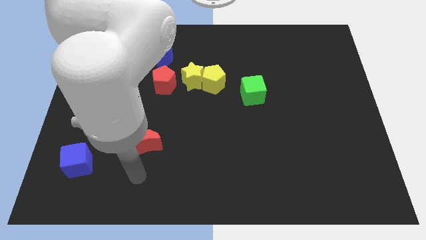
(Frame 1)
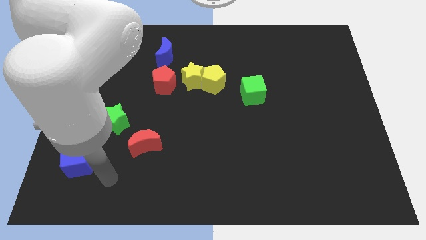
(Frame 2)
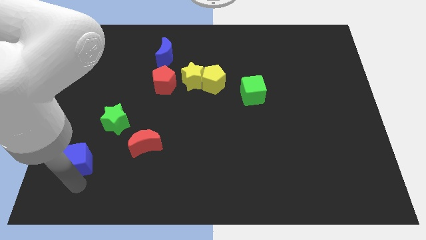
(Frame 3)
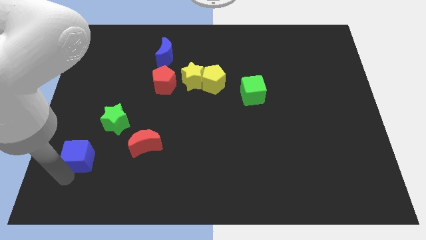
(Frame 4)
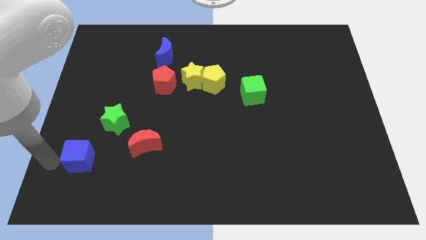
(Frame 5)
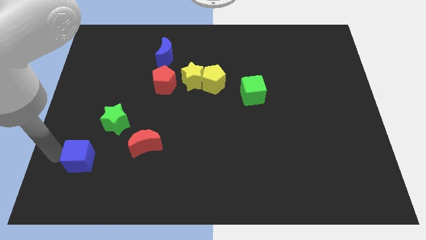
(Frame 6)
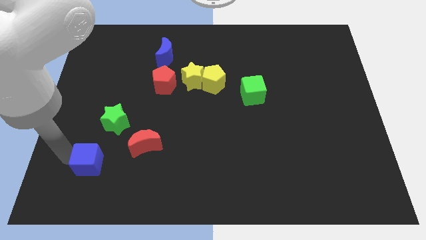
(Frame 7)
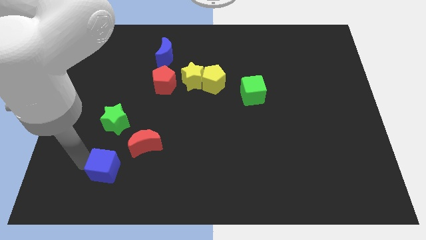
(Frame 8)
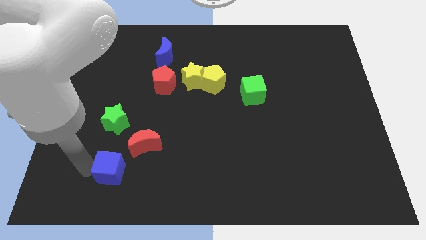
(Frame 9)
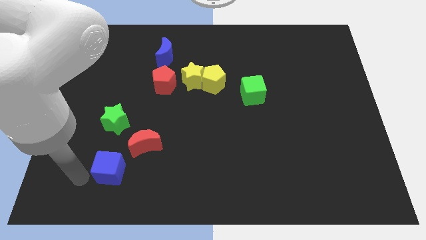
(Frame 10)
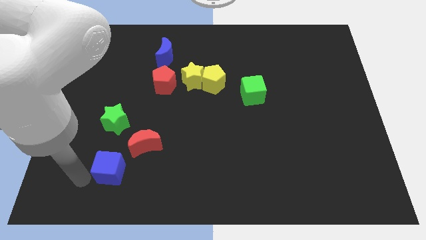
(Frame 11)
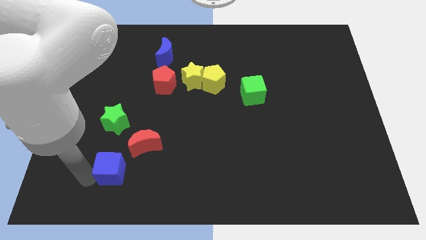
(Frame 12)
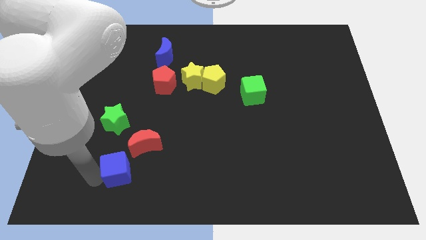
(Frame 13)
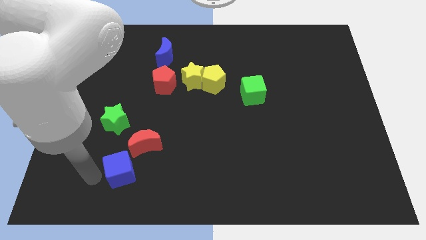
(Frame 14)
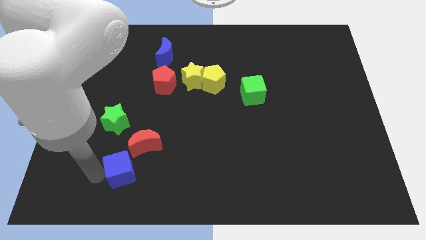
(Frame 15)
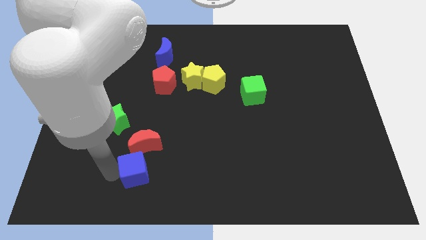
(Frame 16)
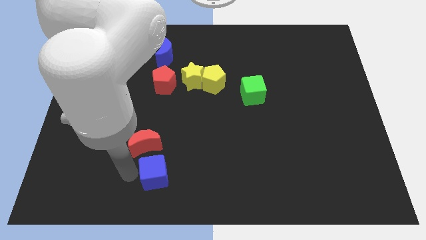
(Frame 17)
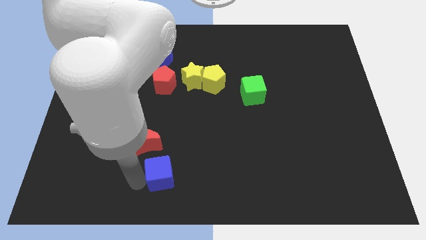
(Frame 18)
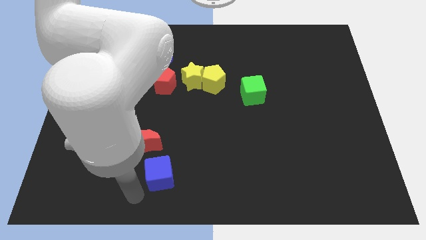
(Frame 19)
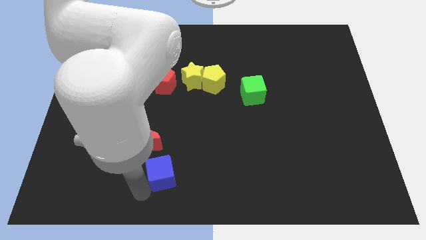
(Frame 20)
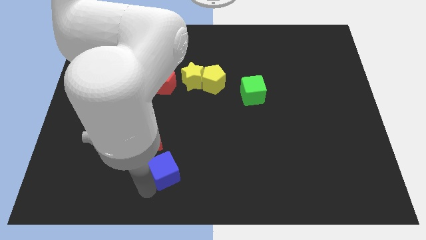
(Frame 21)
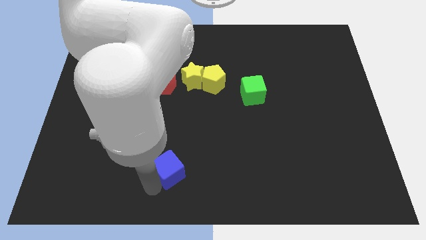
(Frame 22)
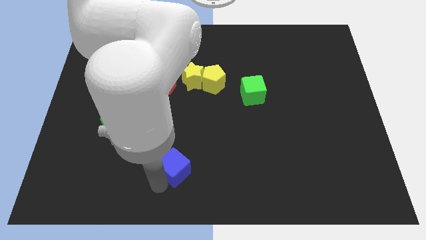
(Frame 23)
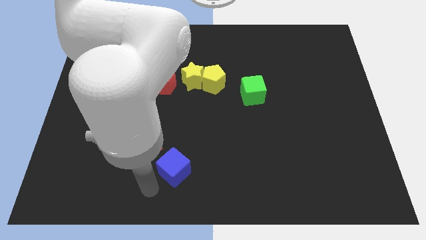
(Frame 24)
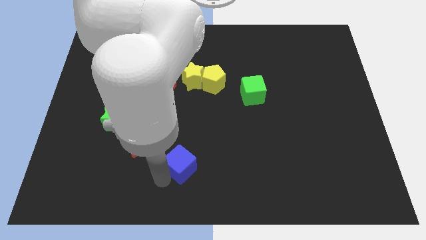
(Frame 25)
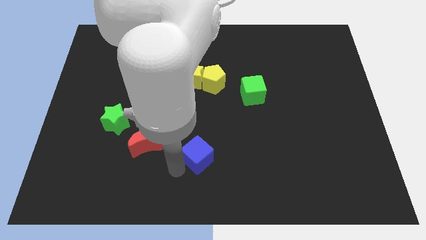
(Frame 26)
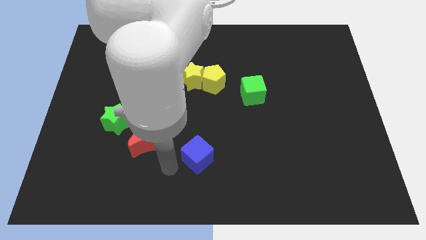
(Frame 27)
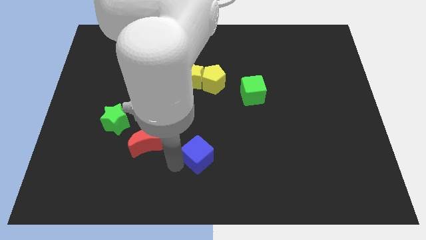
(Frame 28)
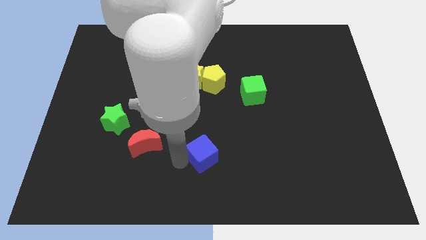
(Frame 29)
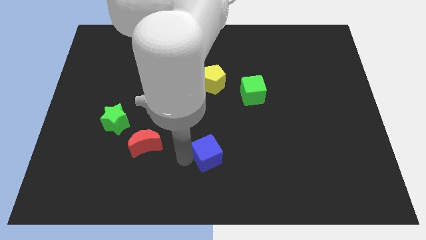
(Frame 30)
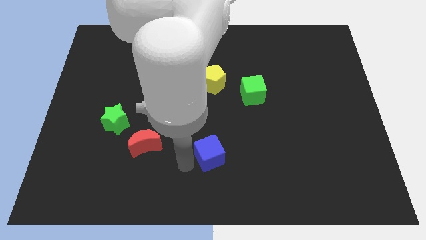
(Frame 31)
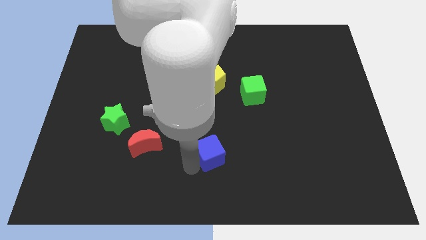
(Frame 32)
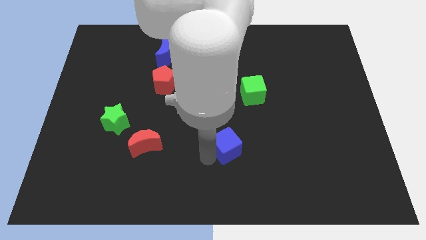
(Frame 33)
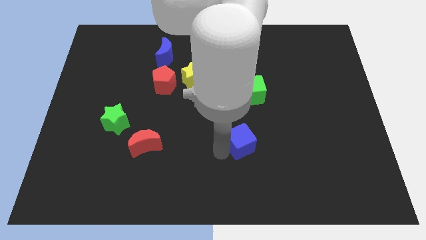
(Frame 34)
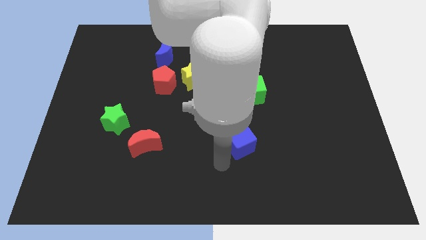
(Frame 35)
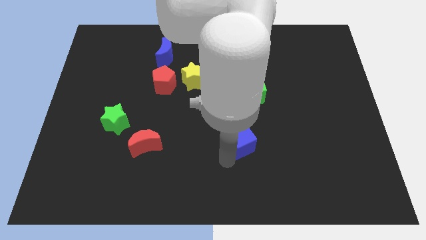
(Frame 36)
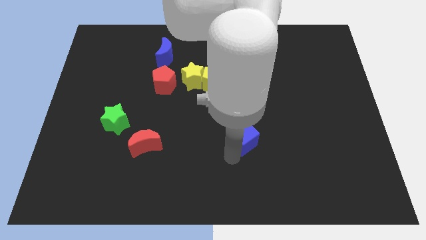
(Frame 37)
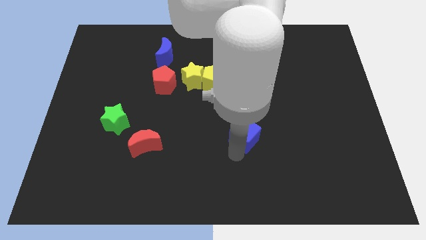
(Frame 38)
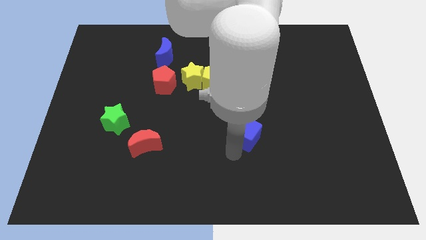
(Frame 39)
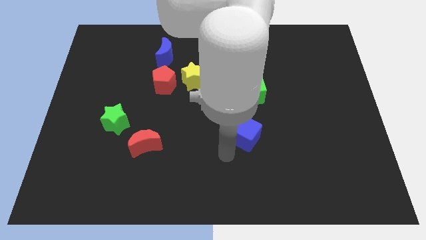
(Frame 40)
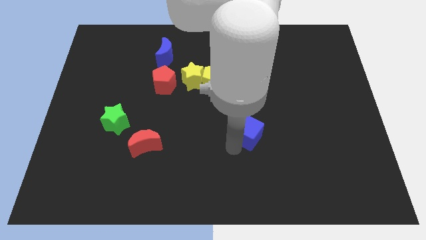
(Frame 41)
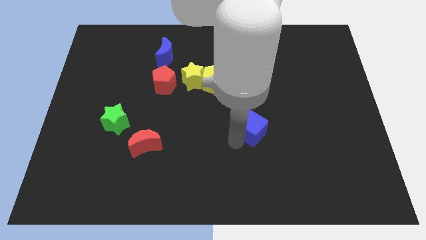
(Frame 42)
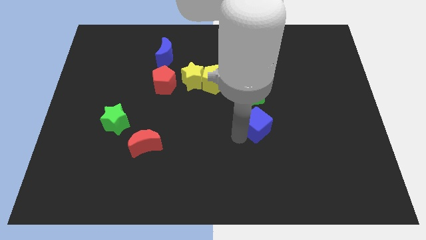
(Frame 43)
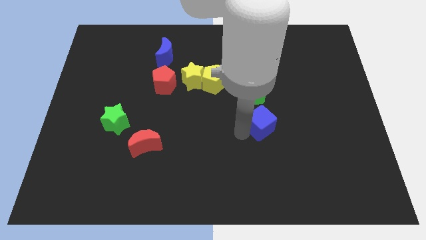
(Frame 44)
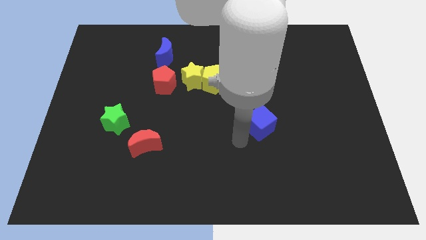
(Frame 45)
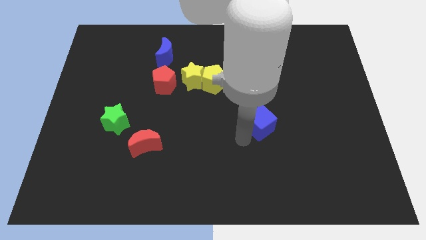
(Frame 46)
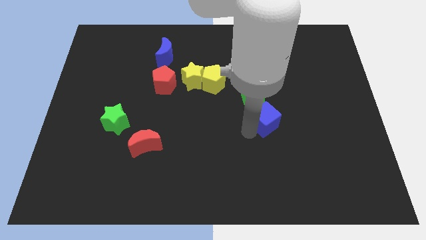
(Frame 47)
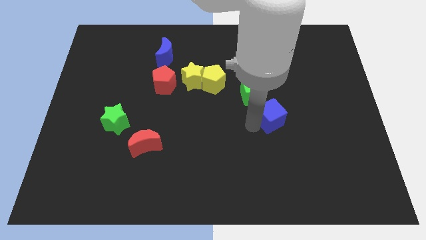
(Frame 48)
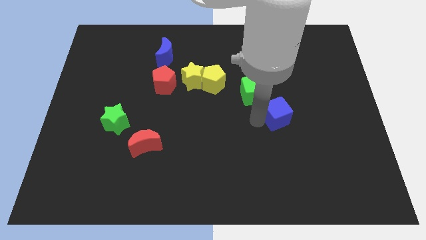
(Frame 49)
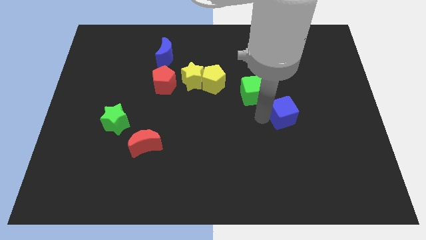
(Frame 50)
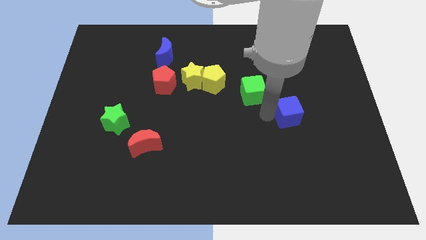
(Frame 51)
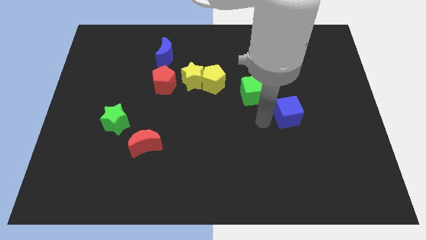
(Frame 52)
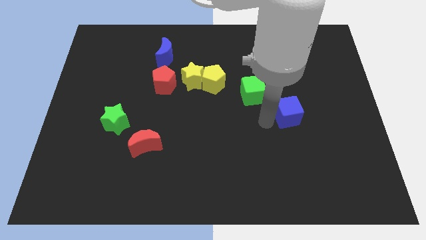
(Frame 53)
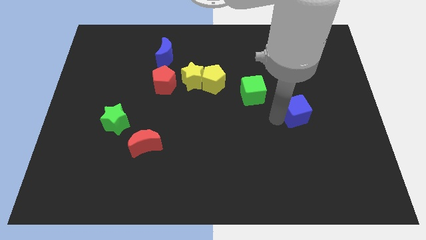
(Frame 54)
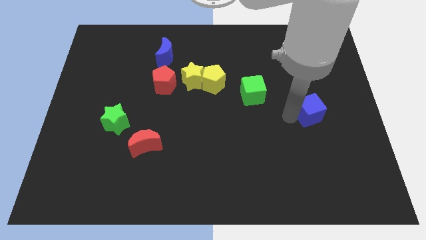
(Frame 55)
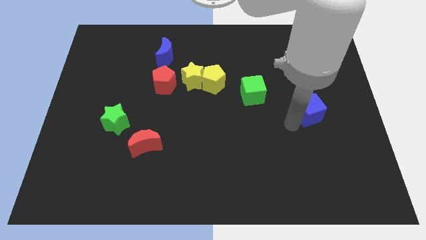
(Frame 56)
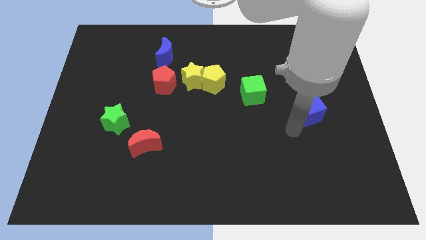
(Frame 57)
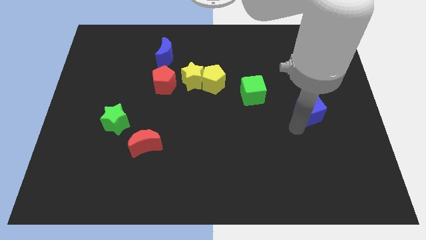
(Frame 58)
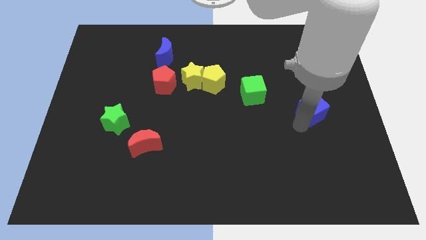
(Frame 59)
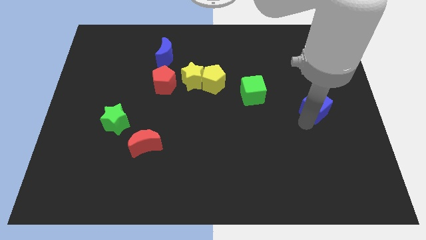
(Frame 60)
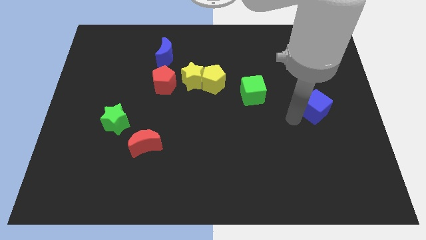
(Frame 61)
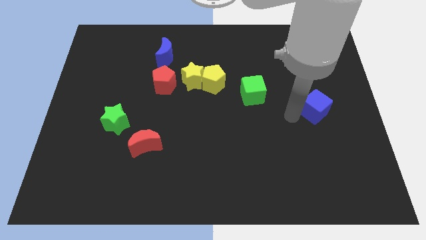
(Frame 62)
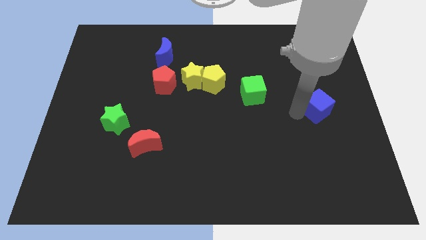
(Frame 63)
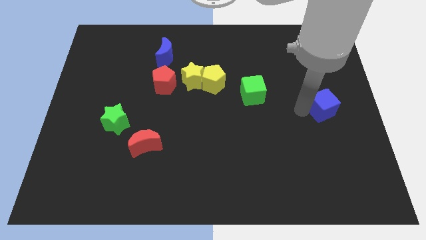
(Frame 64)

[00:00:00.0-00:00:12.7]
slide the blue cube to the right side
